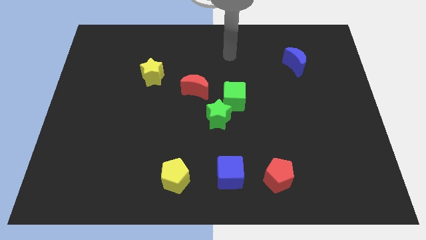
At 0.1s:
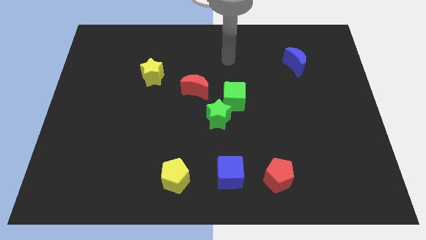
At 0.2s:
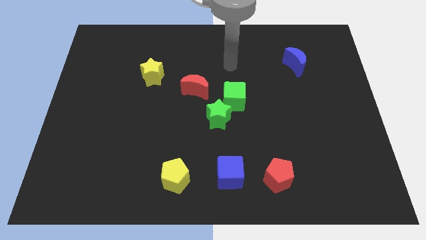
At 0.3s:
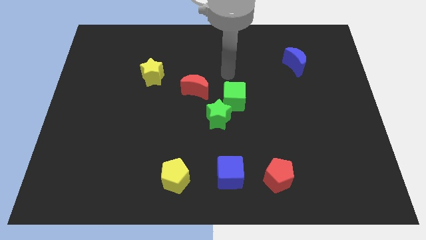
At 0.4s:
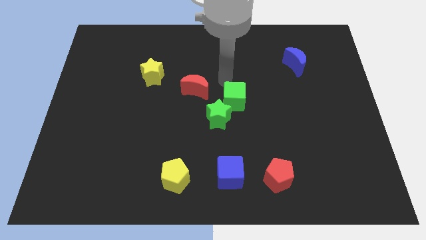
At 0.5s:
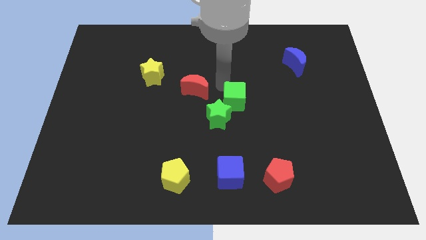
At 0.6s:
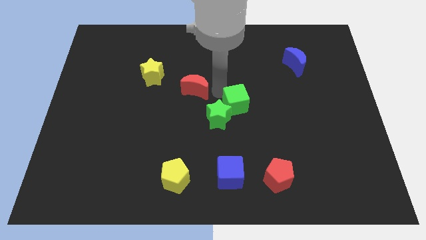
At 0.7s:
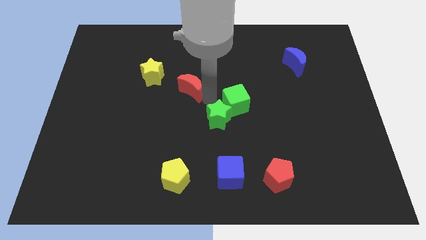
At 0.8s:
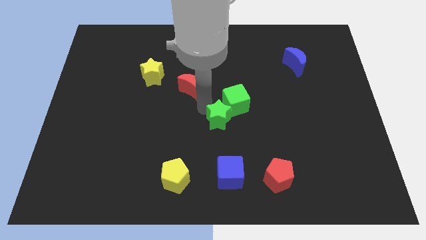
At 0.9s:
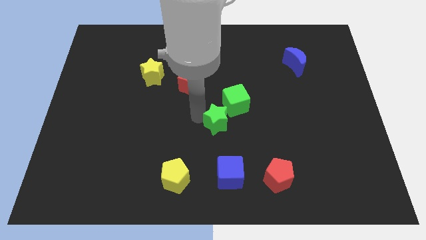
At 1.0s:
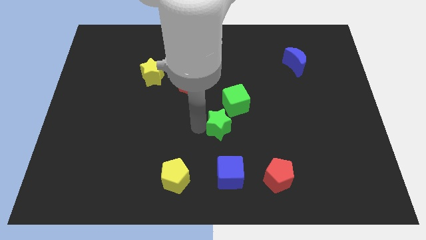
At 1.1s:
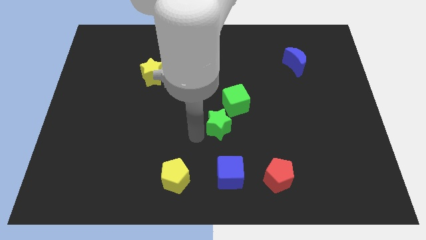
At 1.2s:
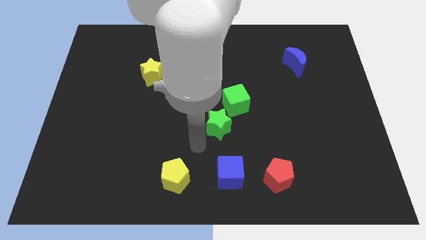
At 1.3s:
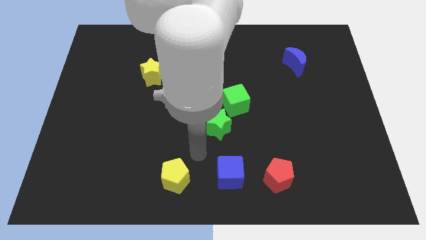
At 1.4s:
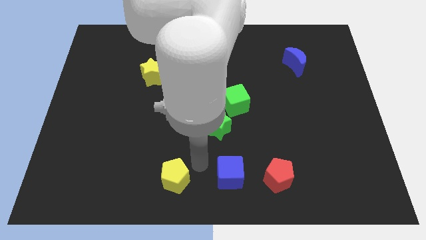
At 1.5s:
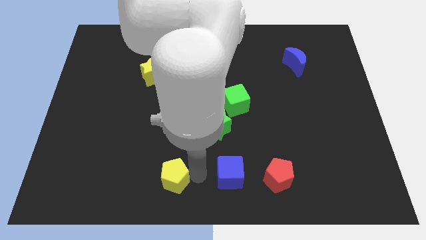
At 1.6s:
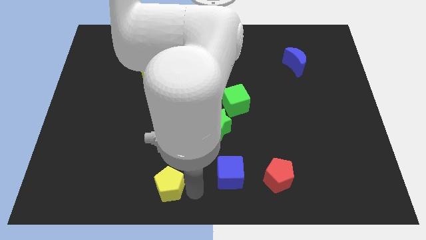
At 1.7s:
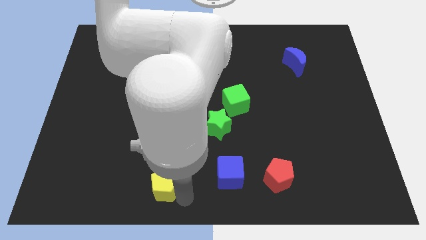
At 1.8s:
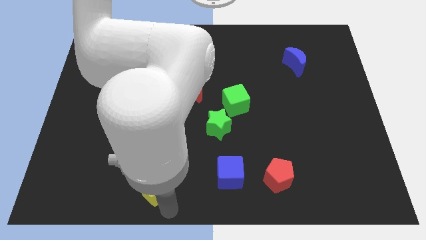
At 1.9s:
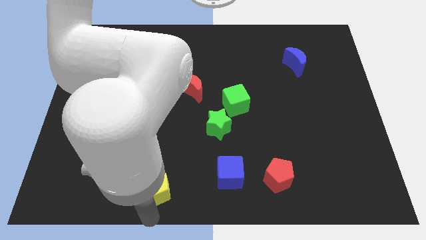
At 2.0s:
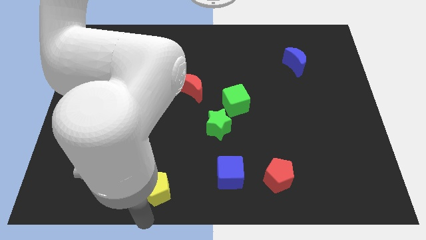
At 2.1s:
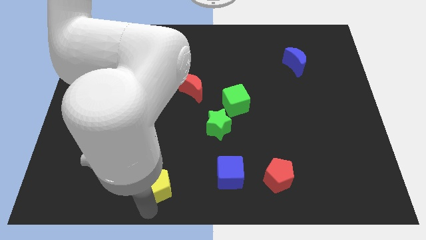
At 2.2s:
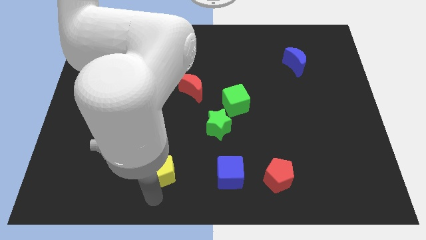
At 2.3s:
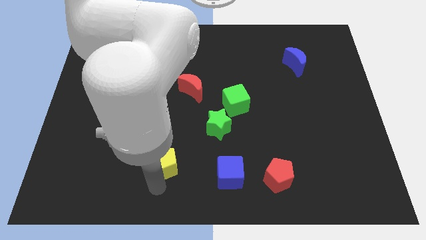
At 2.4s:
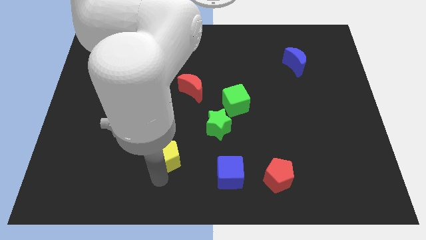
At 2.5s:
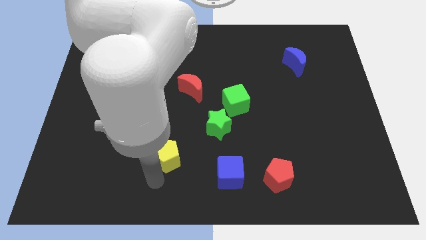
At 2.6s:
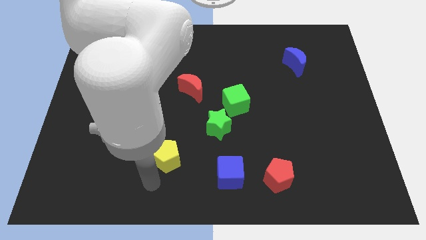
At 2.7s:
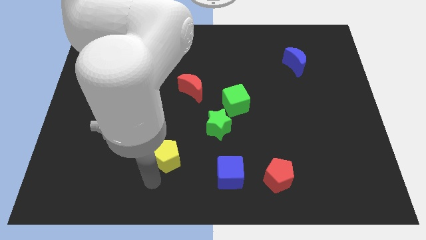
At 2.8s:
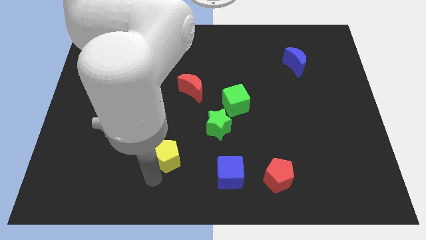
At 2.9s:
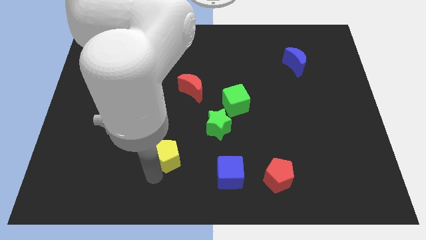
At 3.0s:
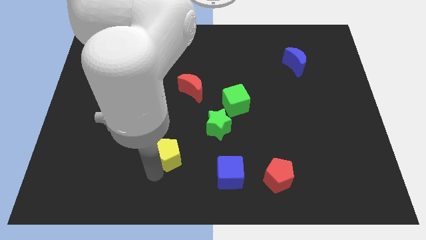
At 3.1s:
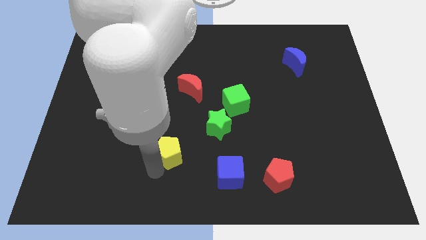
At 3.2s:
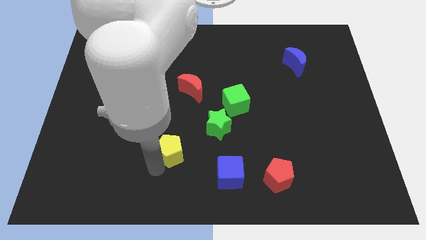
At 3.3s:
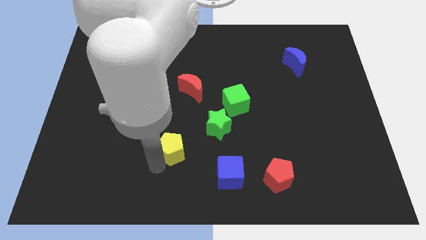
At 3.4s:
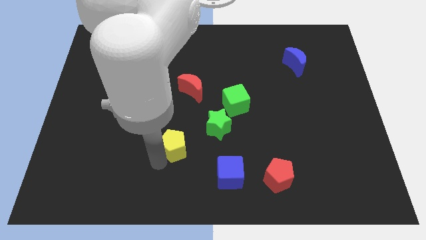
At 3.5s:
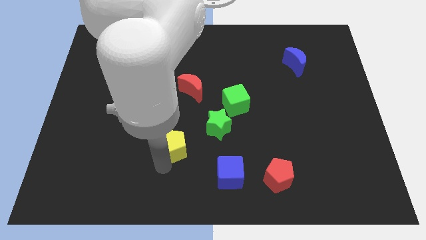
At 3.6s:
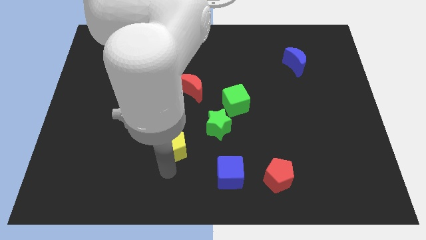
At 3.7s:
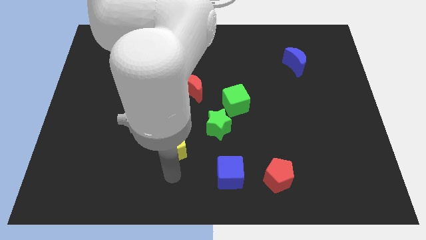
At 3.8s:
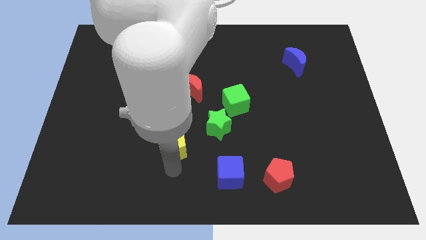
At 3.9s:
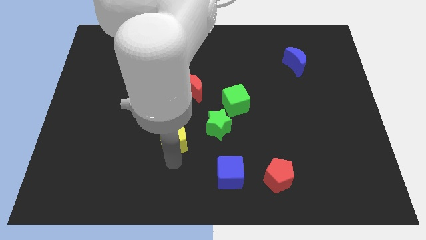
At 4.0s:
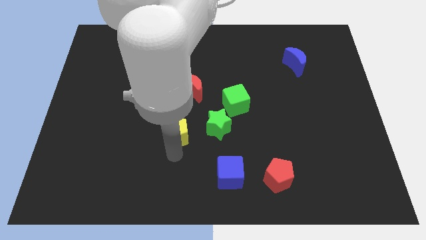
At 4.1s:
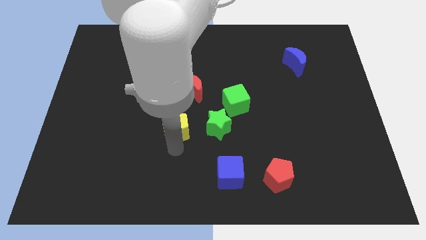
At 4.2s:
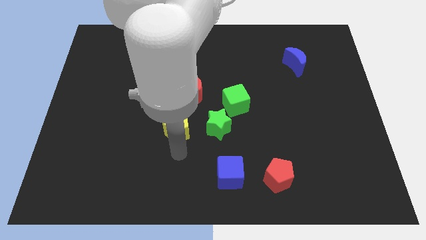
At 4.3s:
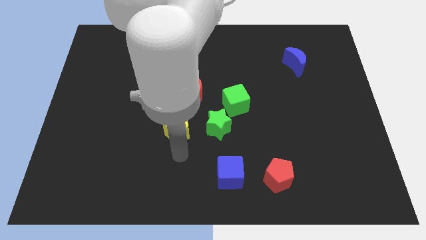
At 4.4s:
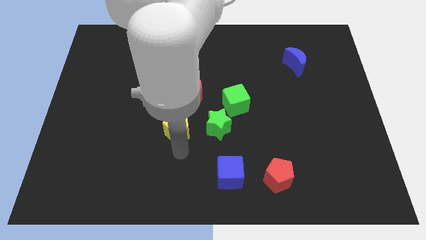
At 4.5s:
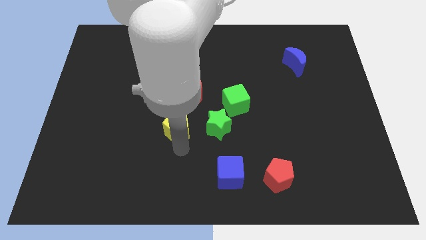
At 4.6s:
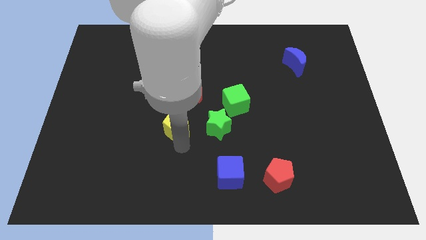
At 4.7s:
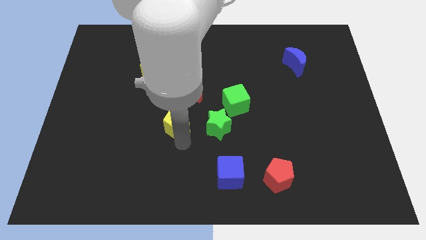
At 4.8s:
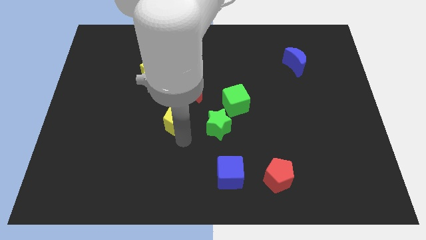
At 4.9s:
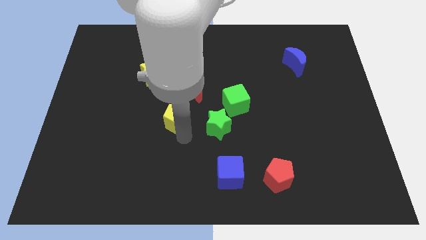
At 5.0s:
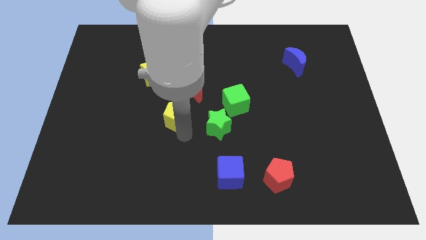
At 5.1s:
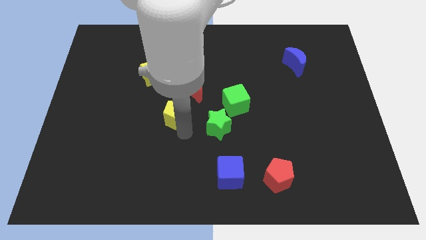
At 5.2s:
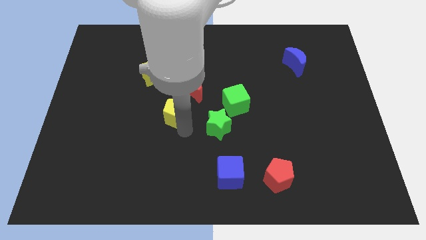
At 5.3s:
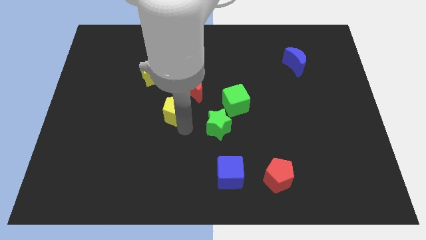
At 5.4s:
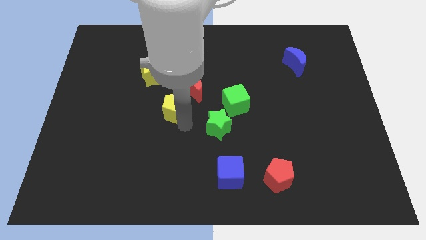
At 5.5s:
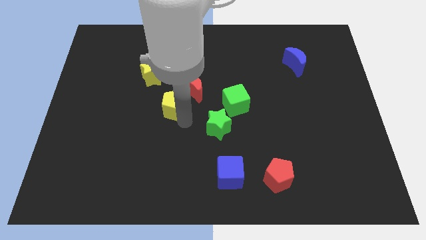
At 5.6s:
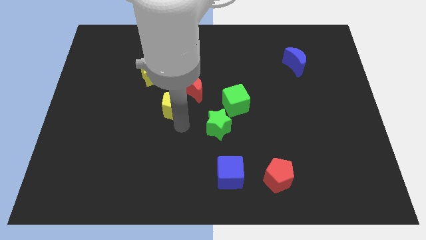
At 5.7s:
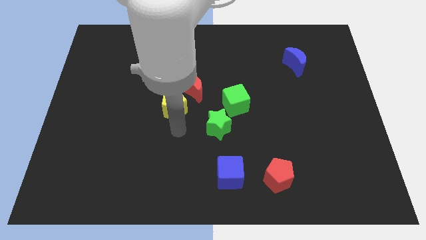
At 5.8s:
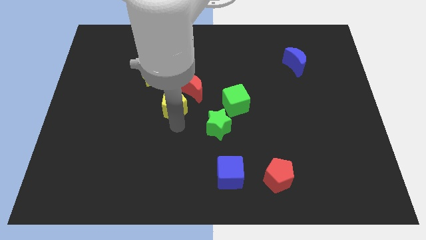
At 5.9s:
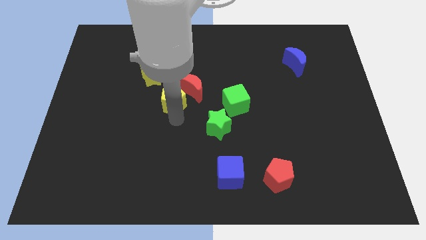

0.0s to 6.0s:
slide the yellow pentagon up

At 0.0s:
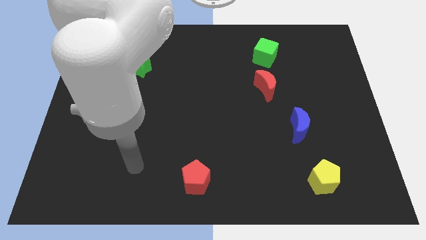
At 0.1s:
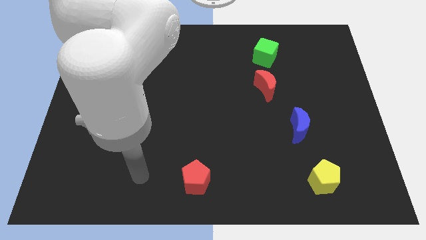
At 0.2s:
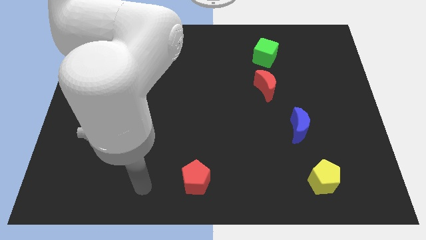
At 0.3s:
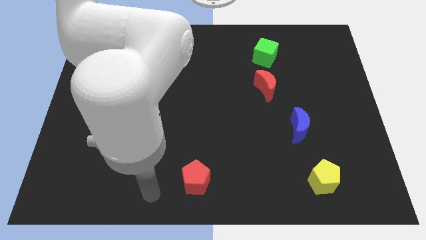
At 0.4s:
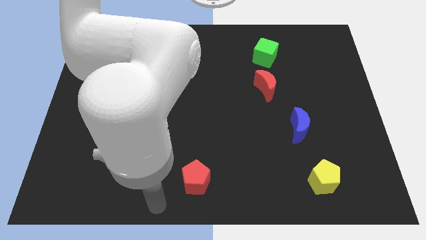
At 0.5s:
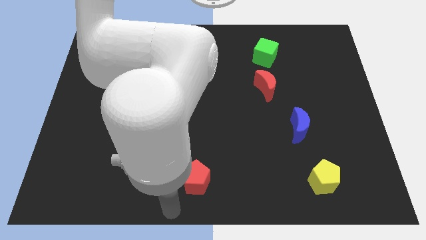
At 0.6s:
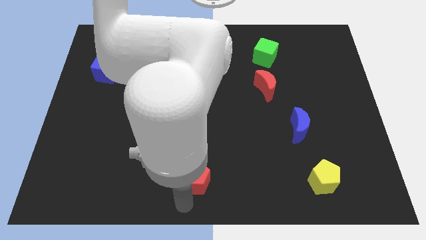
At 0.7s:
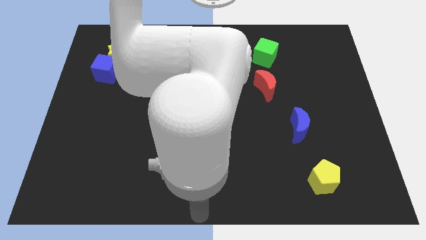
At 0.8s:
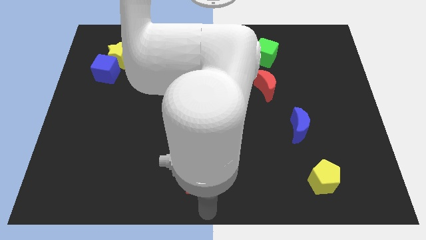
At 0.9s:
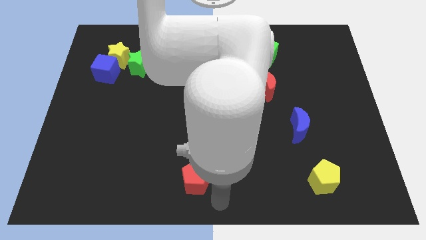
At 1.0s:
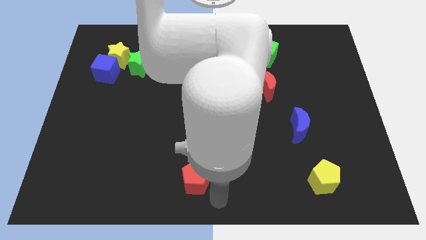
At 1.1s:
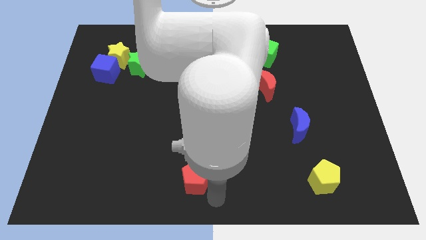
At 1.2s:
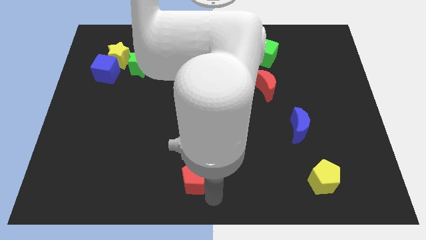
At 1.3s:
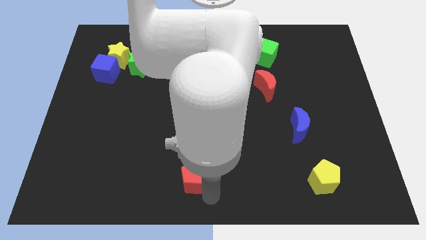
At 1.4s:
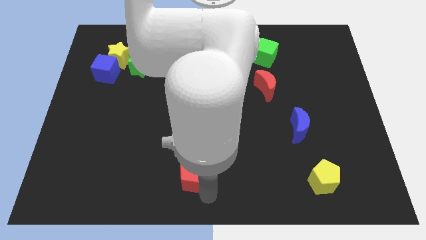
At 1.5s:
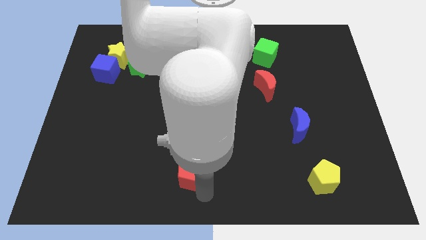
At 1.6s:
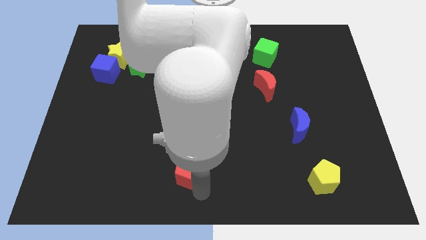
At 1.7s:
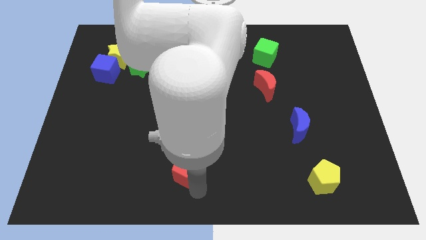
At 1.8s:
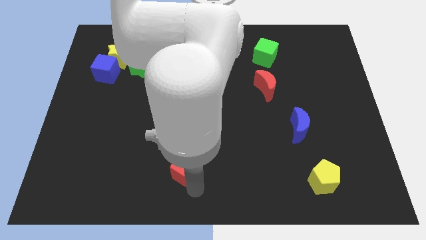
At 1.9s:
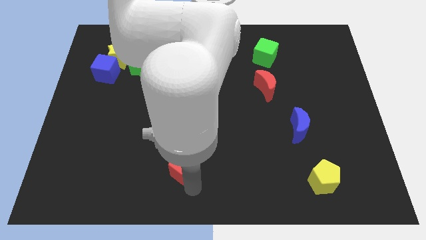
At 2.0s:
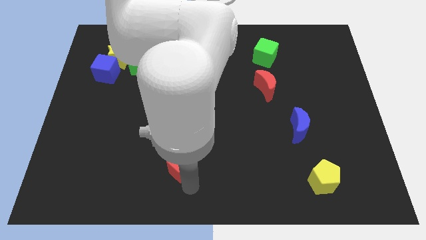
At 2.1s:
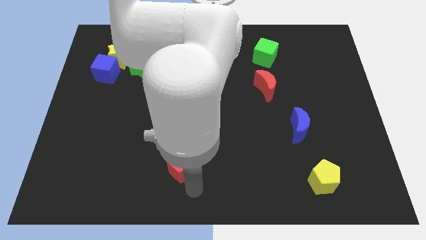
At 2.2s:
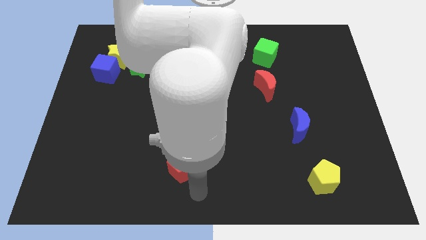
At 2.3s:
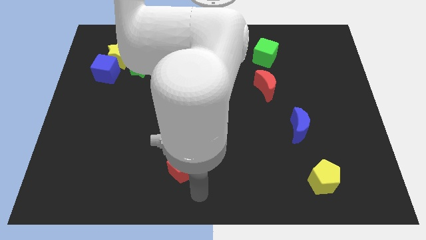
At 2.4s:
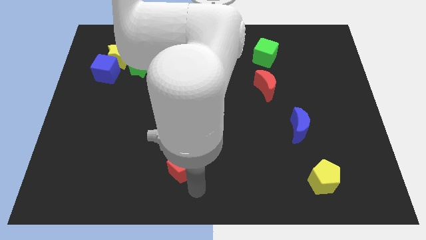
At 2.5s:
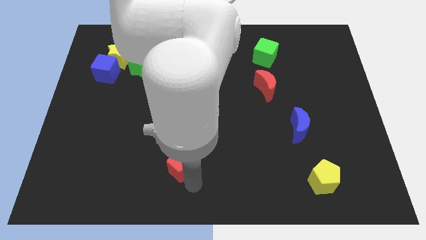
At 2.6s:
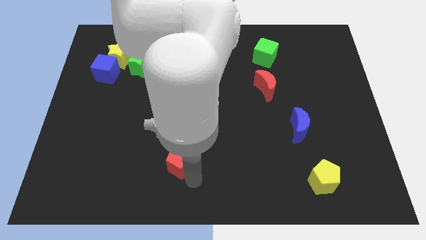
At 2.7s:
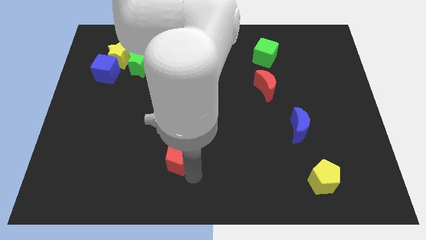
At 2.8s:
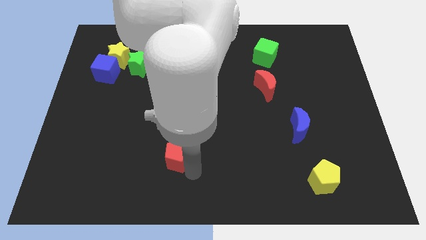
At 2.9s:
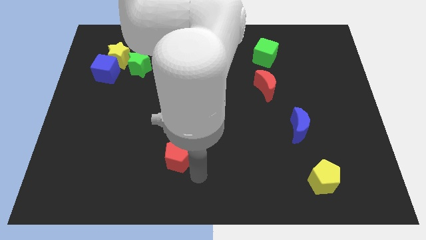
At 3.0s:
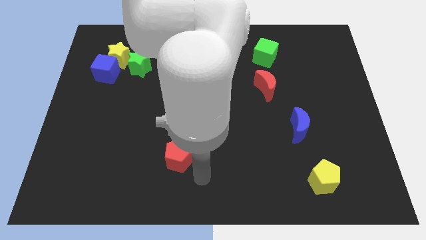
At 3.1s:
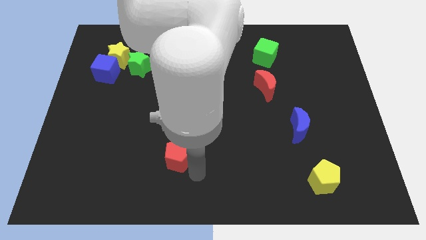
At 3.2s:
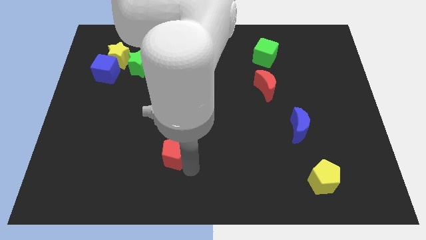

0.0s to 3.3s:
push the red pentagon slightly upwards and left
